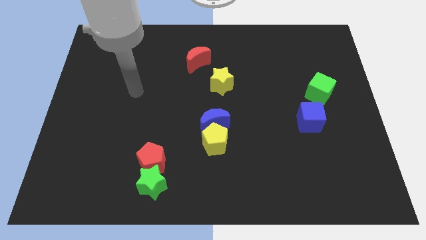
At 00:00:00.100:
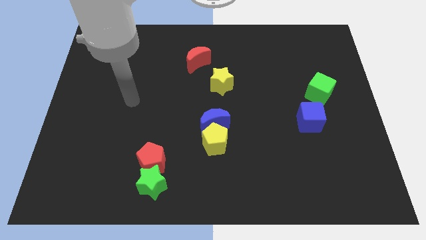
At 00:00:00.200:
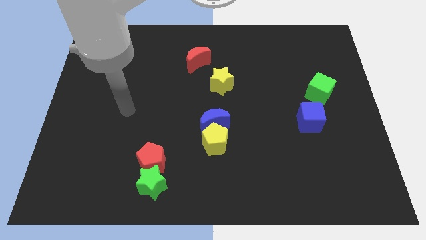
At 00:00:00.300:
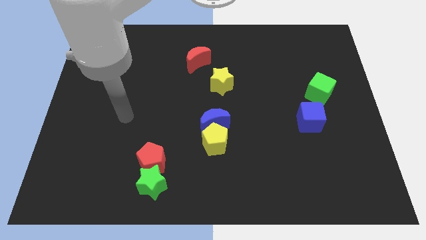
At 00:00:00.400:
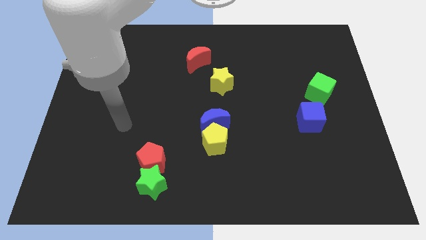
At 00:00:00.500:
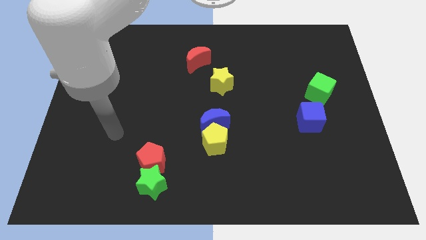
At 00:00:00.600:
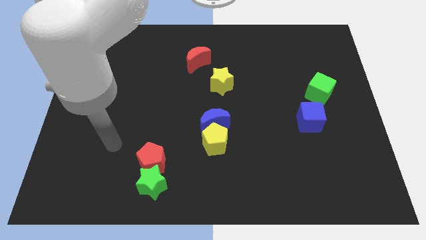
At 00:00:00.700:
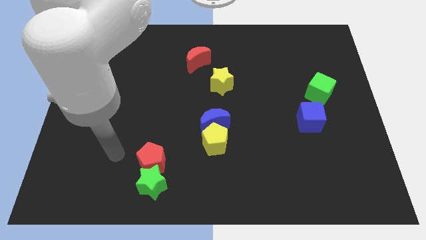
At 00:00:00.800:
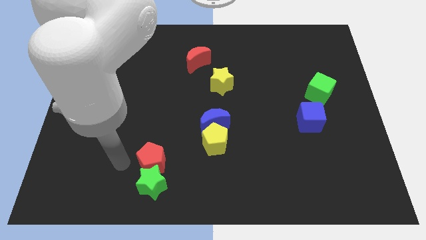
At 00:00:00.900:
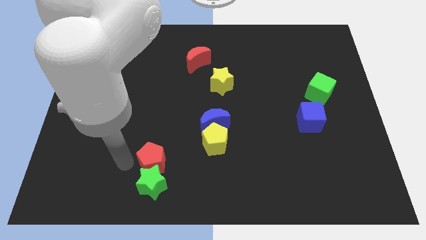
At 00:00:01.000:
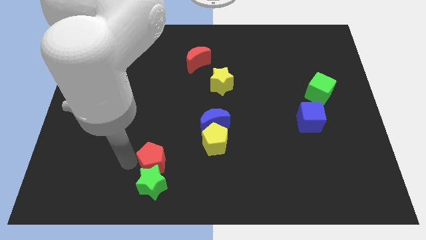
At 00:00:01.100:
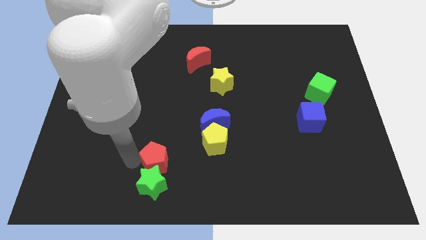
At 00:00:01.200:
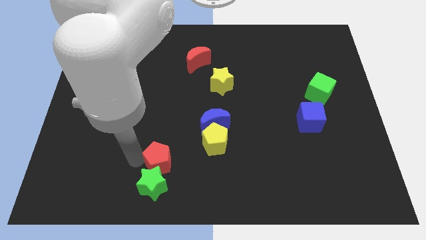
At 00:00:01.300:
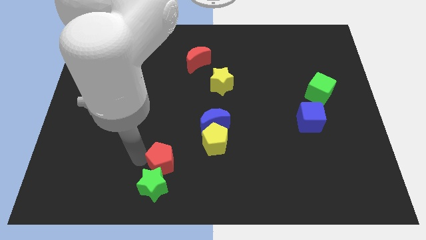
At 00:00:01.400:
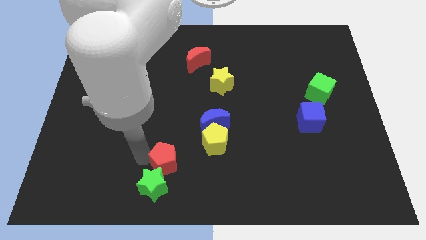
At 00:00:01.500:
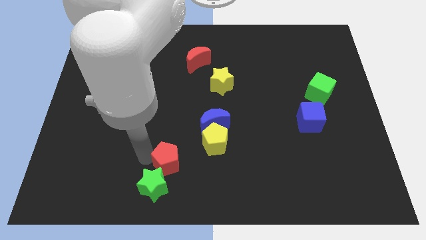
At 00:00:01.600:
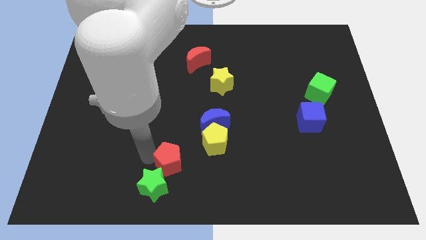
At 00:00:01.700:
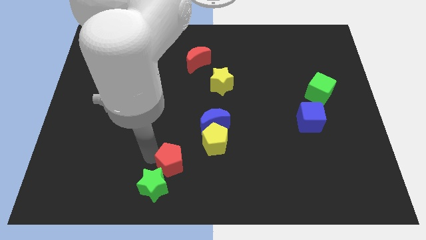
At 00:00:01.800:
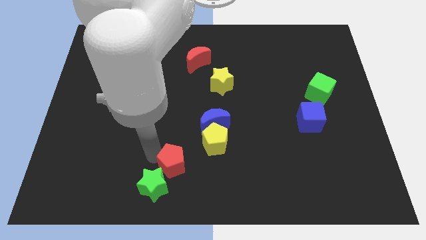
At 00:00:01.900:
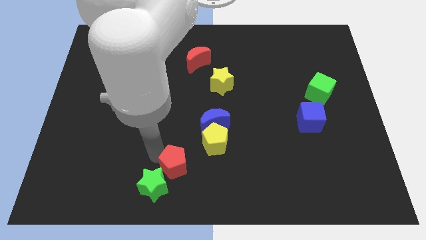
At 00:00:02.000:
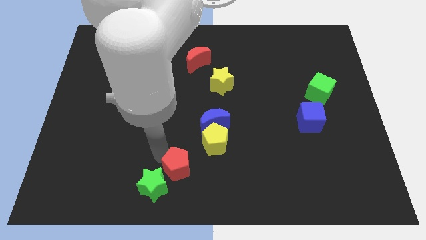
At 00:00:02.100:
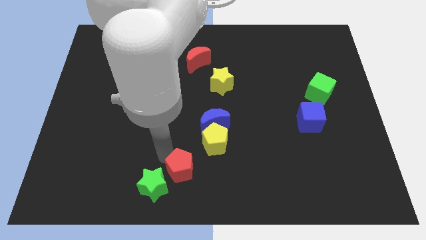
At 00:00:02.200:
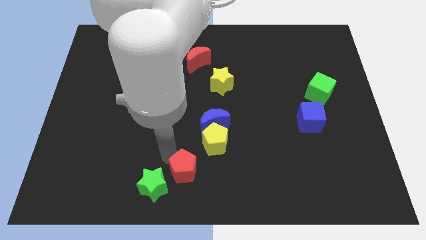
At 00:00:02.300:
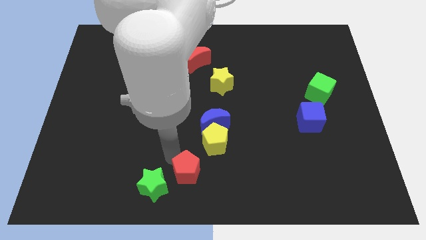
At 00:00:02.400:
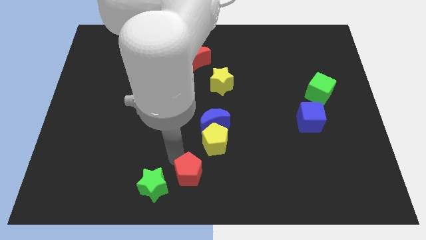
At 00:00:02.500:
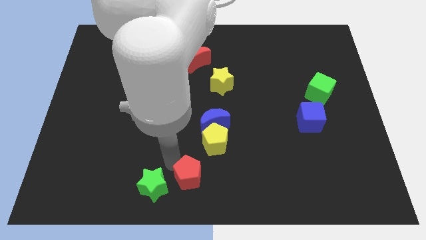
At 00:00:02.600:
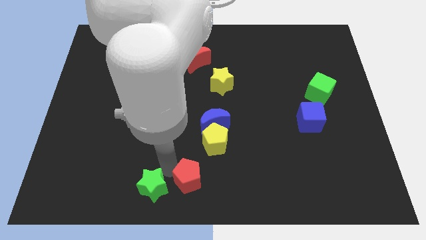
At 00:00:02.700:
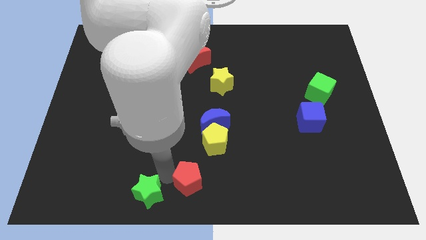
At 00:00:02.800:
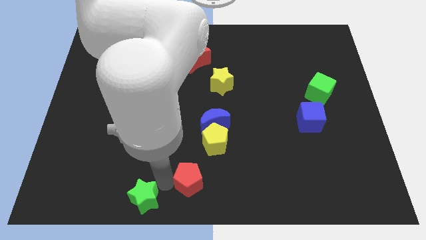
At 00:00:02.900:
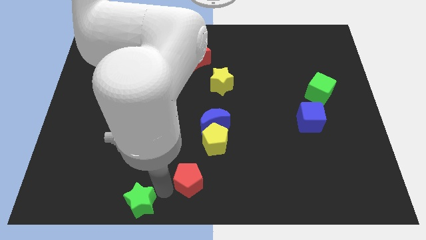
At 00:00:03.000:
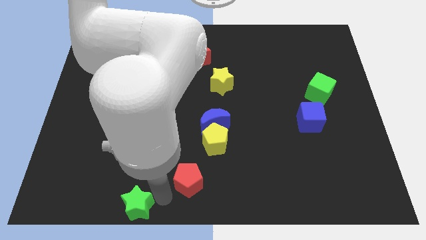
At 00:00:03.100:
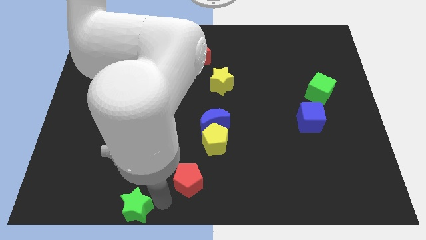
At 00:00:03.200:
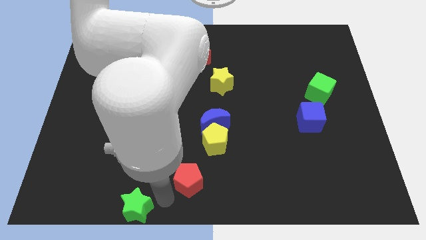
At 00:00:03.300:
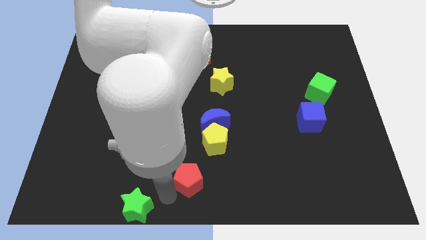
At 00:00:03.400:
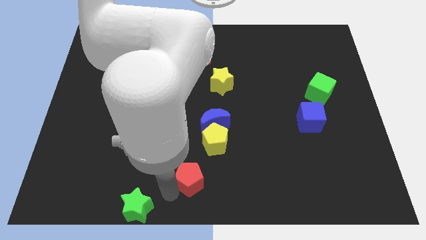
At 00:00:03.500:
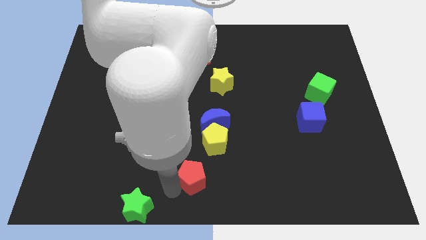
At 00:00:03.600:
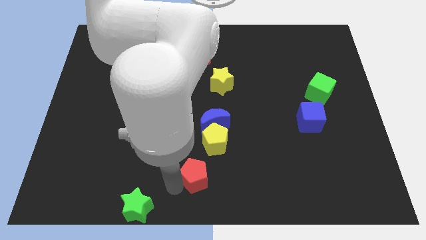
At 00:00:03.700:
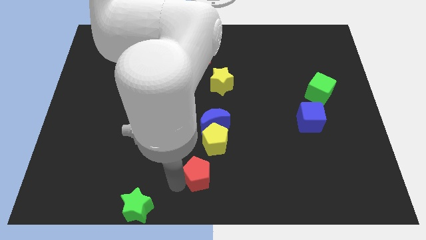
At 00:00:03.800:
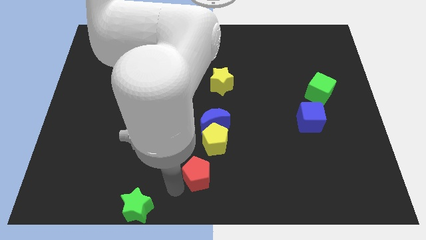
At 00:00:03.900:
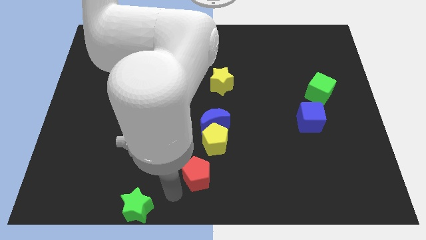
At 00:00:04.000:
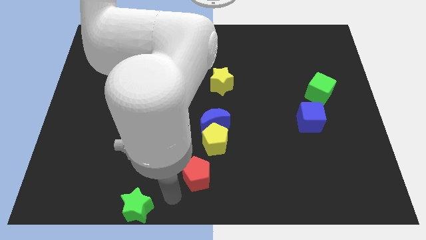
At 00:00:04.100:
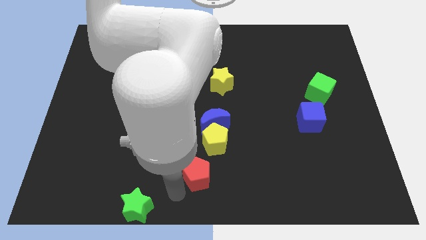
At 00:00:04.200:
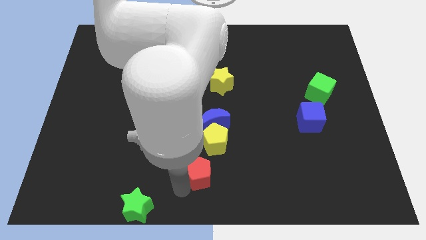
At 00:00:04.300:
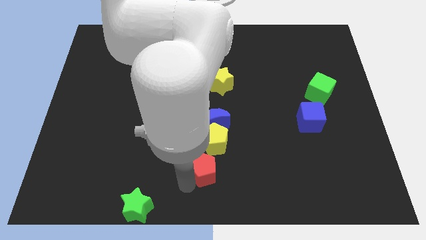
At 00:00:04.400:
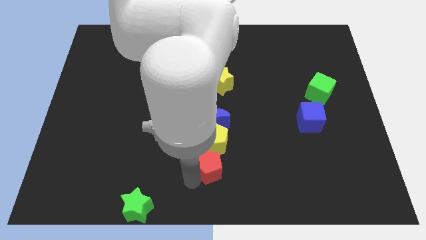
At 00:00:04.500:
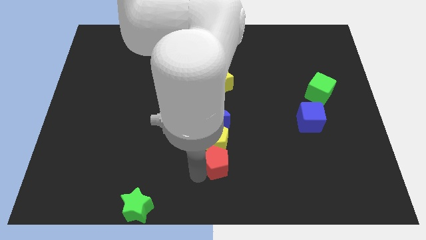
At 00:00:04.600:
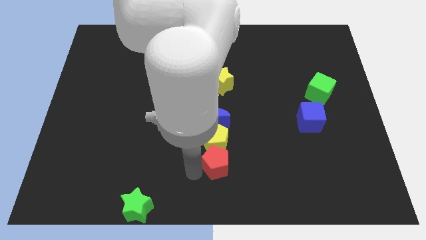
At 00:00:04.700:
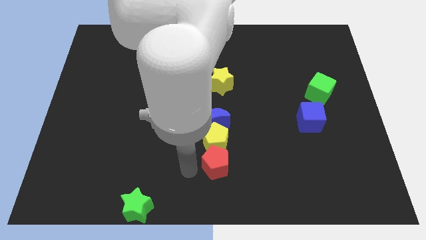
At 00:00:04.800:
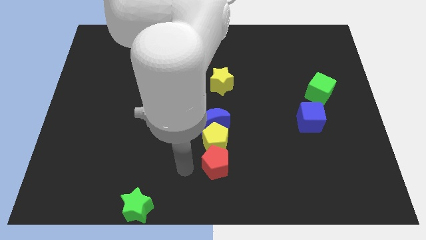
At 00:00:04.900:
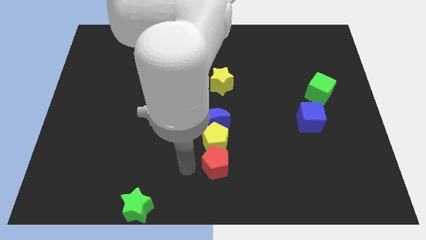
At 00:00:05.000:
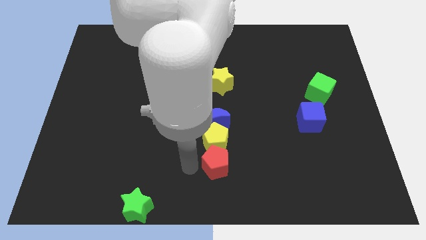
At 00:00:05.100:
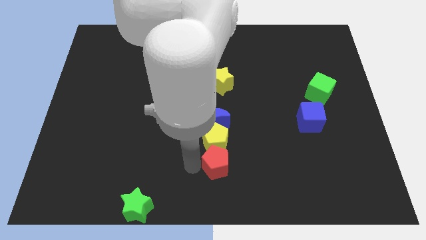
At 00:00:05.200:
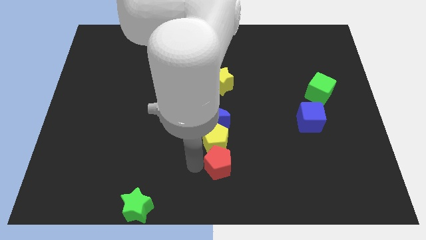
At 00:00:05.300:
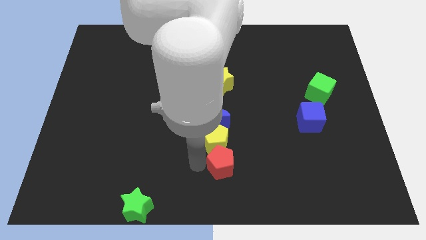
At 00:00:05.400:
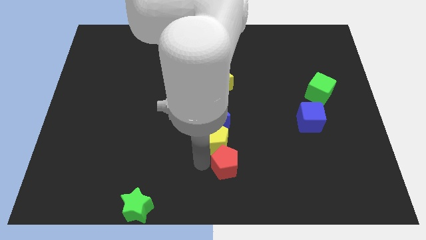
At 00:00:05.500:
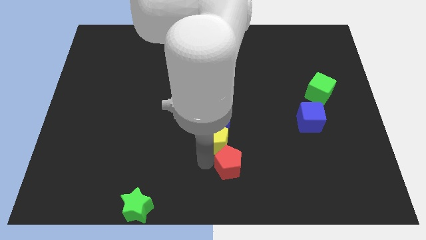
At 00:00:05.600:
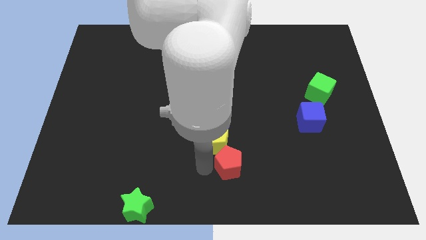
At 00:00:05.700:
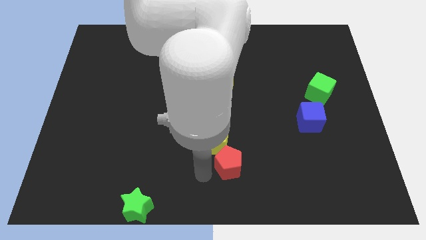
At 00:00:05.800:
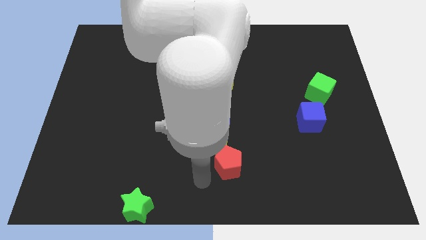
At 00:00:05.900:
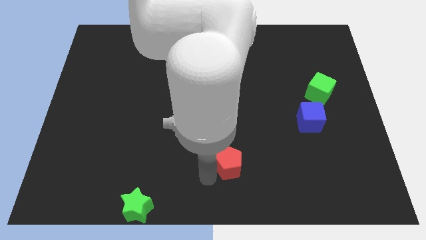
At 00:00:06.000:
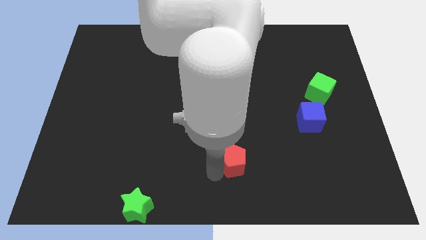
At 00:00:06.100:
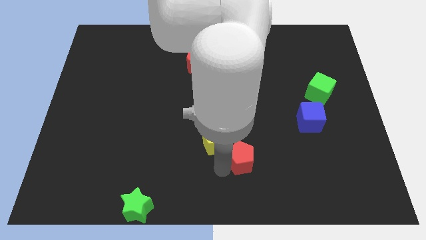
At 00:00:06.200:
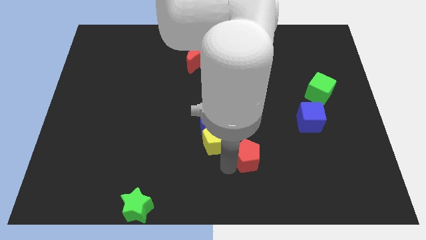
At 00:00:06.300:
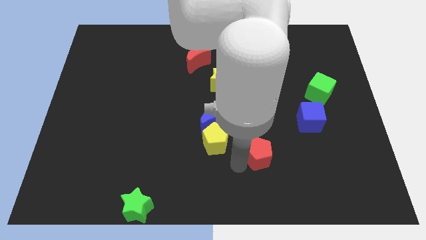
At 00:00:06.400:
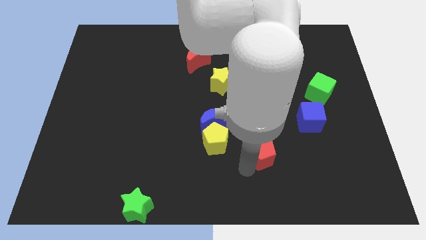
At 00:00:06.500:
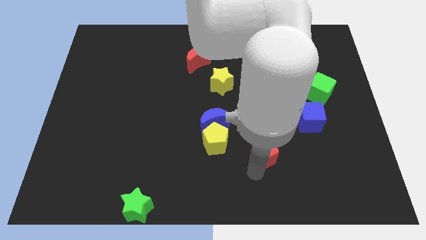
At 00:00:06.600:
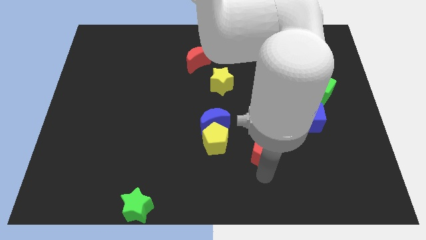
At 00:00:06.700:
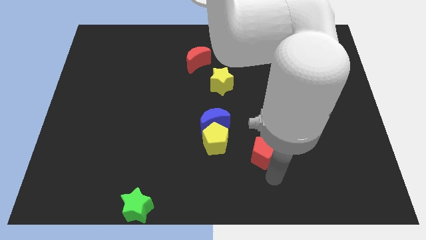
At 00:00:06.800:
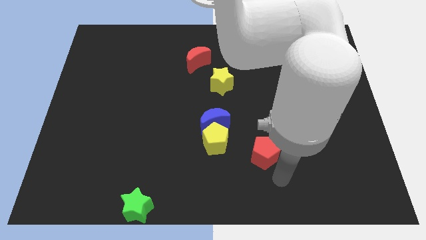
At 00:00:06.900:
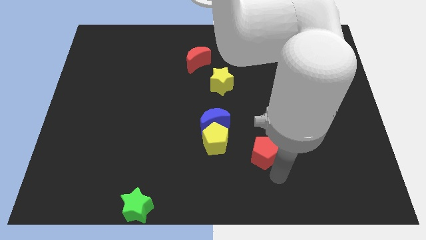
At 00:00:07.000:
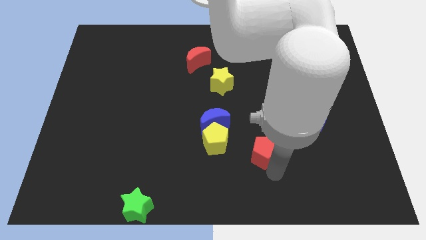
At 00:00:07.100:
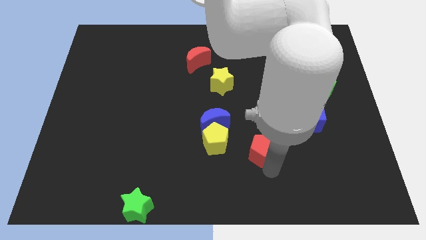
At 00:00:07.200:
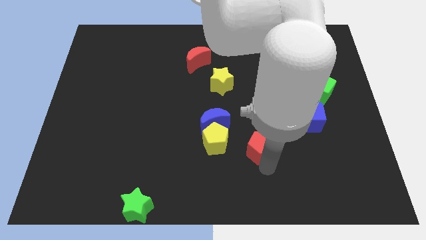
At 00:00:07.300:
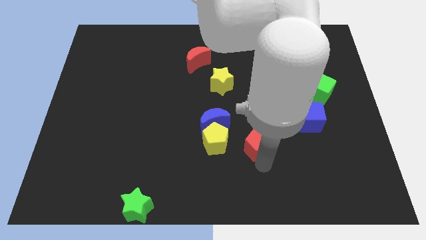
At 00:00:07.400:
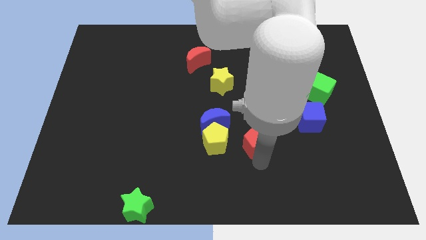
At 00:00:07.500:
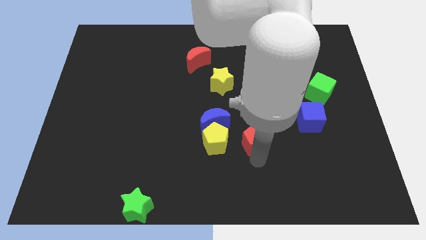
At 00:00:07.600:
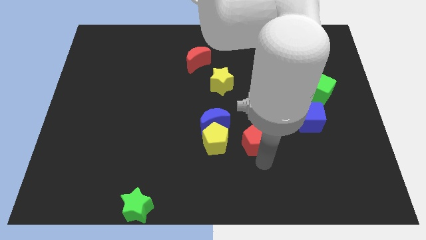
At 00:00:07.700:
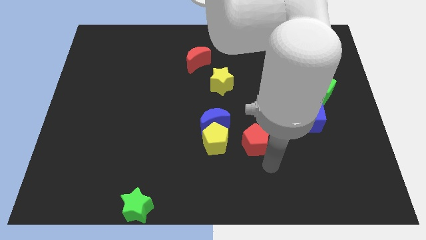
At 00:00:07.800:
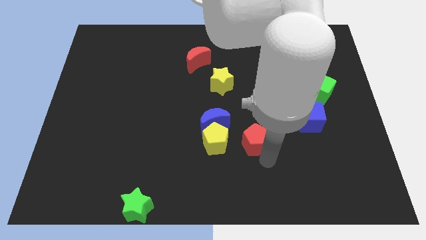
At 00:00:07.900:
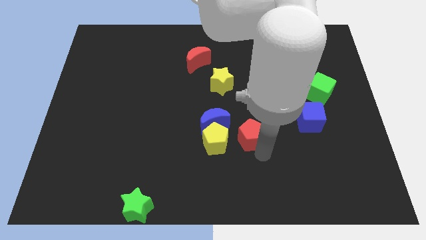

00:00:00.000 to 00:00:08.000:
move the red pentagon diagonally up and to the right of the yellow pentagon
